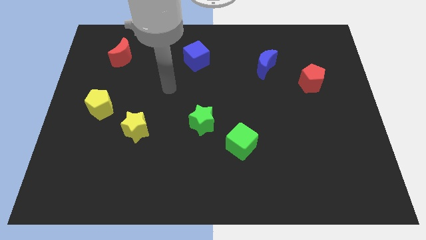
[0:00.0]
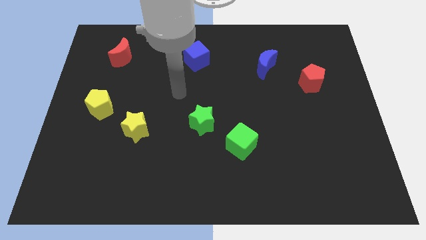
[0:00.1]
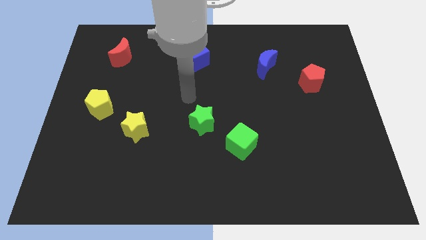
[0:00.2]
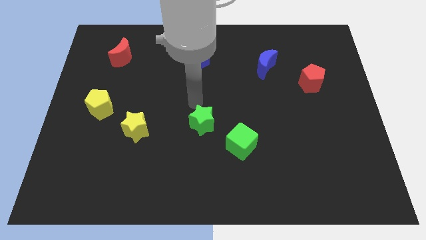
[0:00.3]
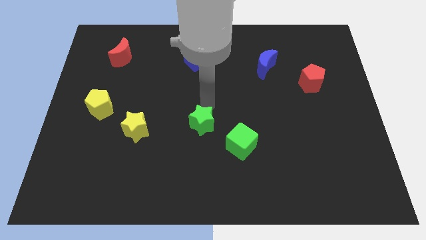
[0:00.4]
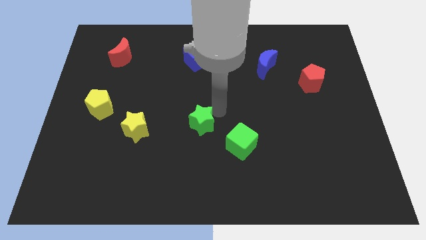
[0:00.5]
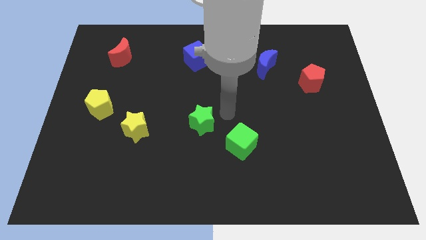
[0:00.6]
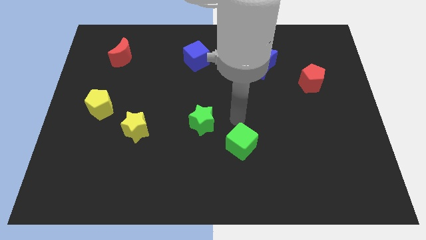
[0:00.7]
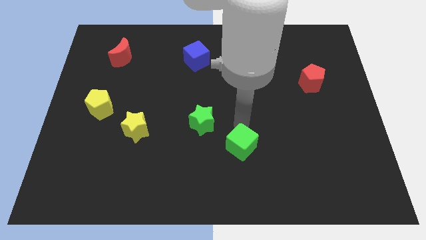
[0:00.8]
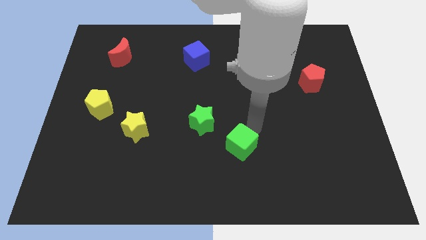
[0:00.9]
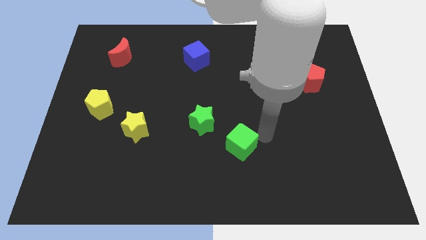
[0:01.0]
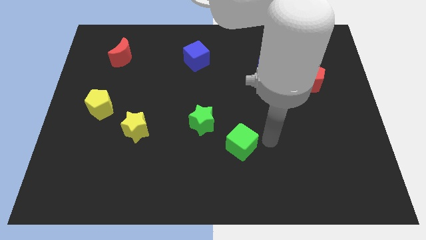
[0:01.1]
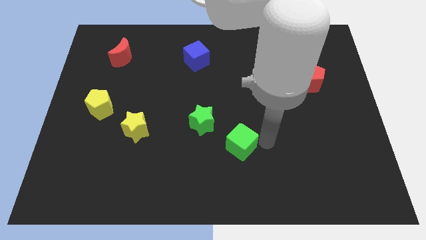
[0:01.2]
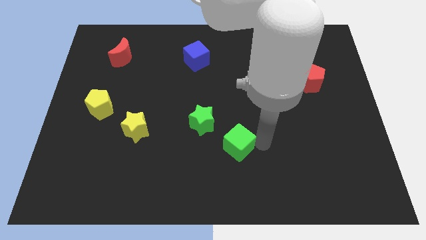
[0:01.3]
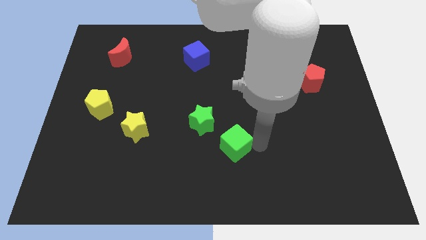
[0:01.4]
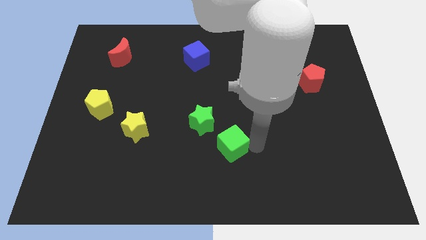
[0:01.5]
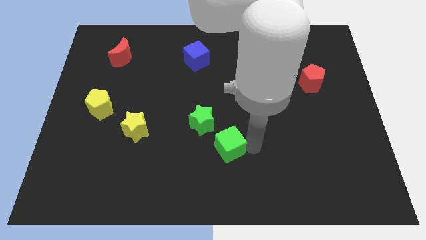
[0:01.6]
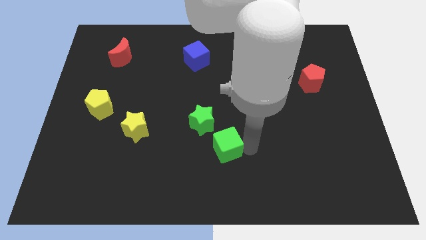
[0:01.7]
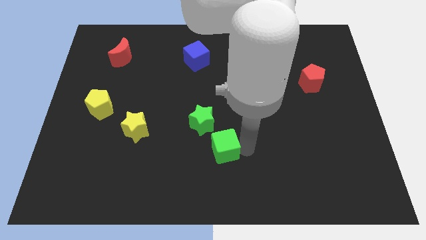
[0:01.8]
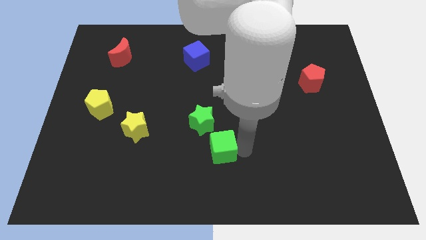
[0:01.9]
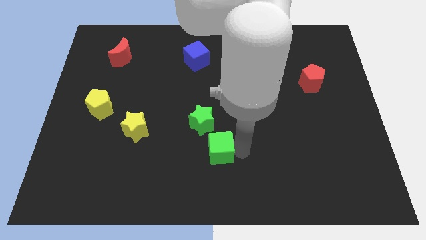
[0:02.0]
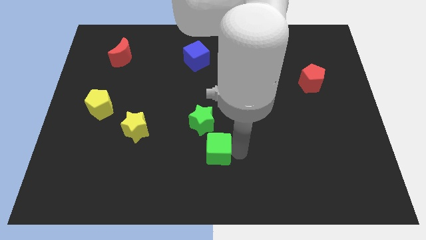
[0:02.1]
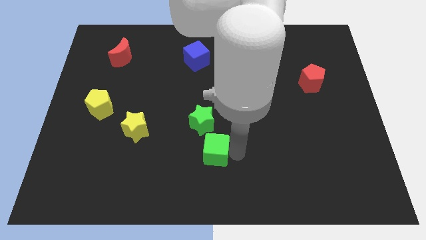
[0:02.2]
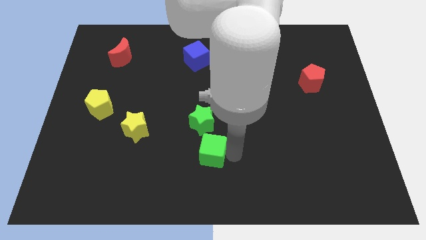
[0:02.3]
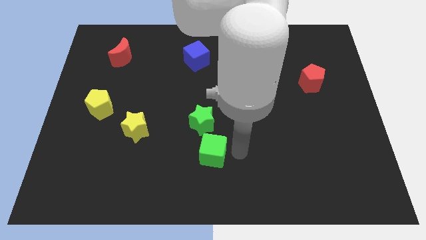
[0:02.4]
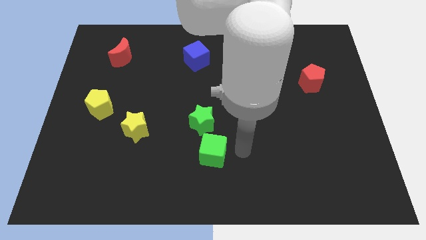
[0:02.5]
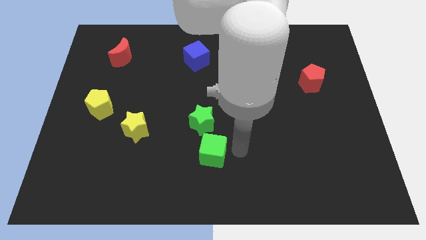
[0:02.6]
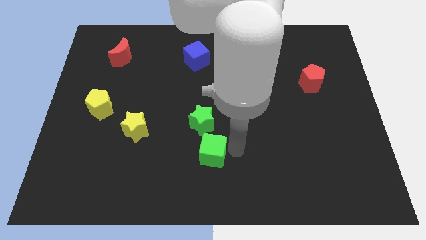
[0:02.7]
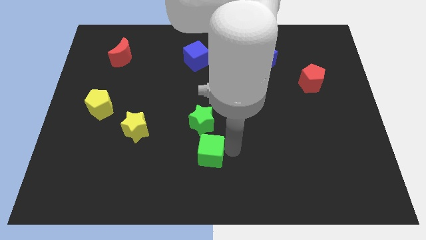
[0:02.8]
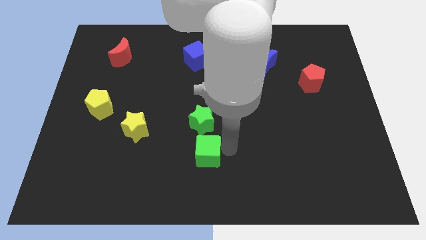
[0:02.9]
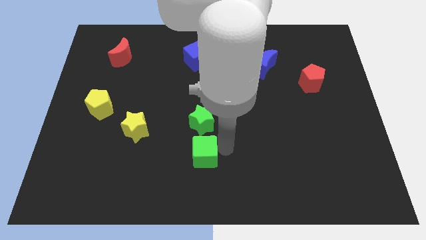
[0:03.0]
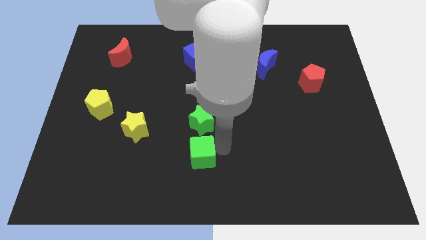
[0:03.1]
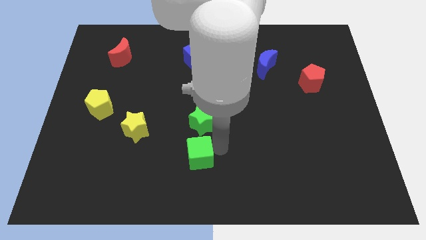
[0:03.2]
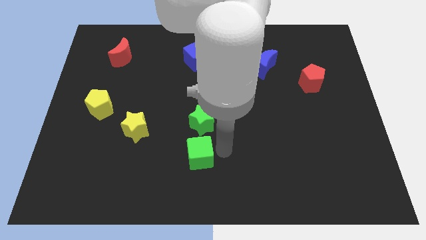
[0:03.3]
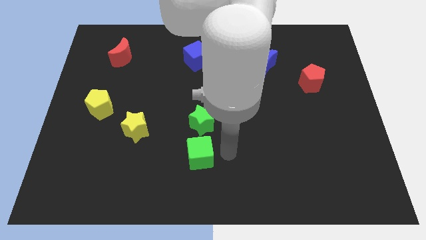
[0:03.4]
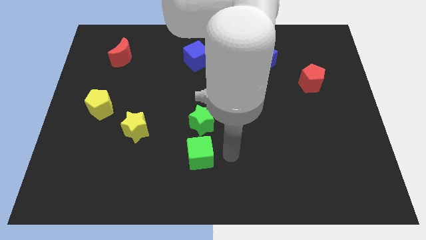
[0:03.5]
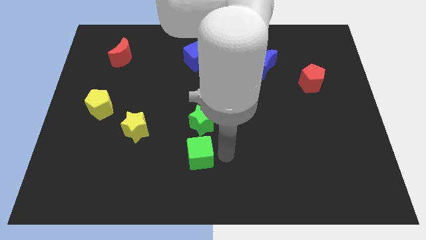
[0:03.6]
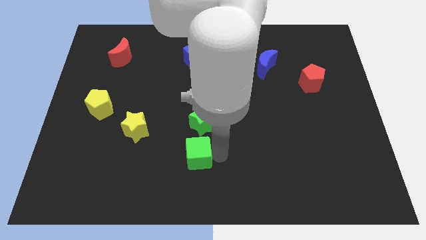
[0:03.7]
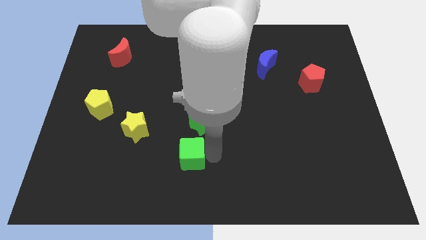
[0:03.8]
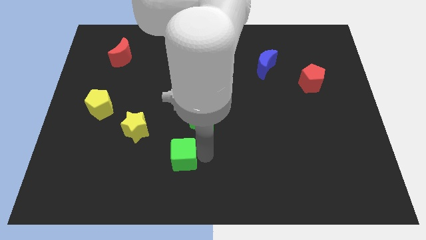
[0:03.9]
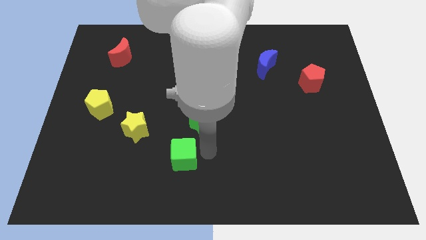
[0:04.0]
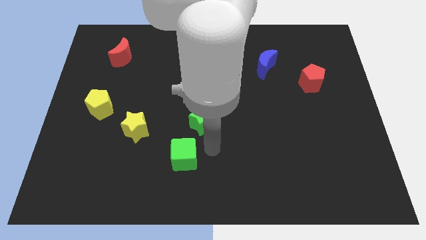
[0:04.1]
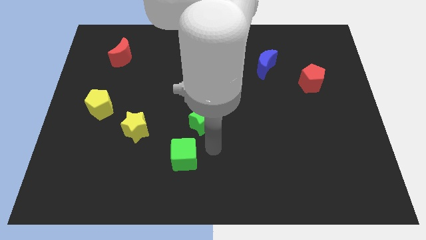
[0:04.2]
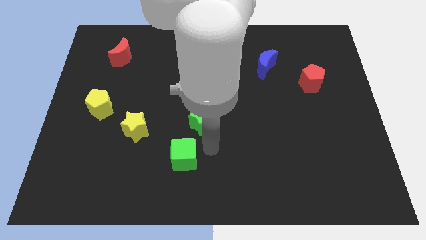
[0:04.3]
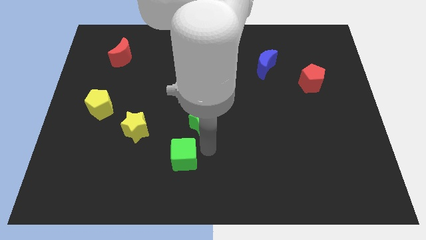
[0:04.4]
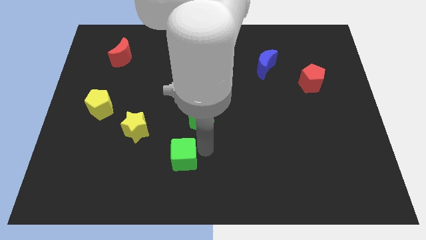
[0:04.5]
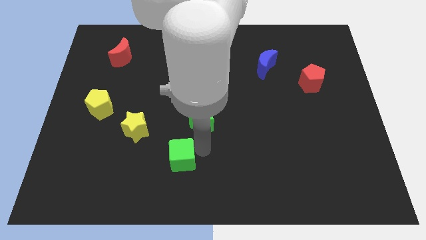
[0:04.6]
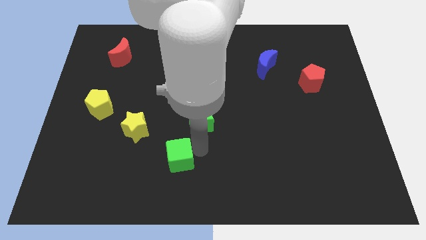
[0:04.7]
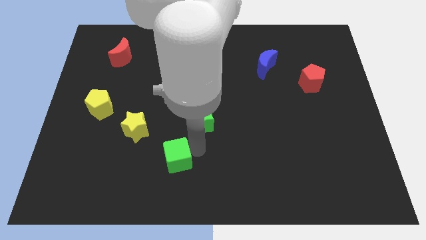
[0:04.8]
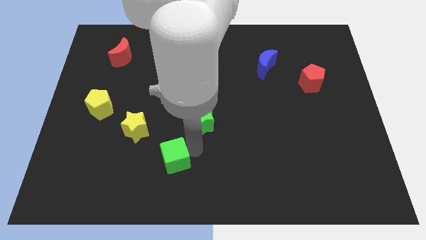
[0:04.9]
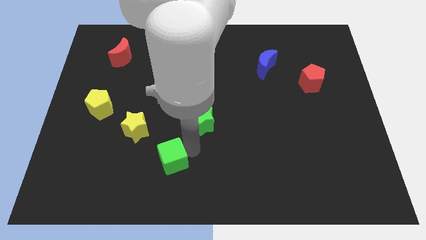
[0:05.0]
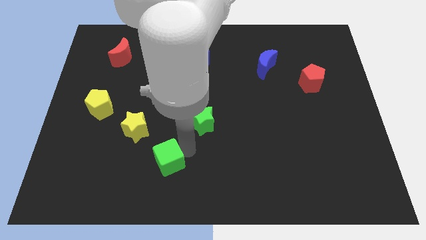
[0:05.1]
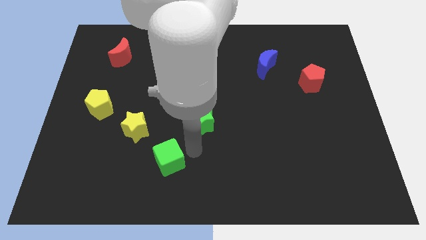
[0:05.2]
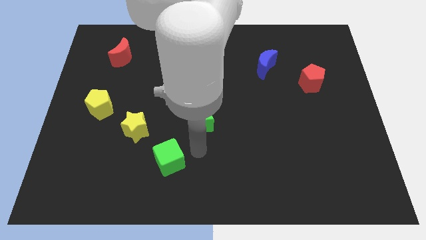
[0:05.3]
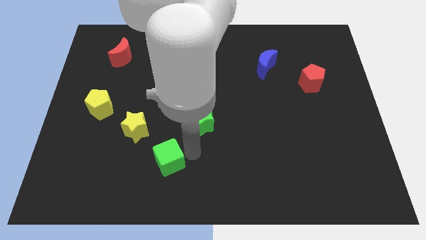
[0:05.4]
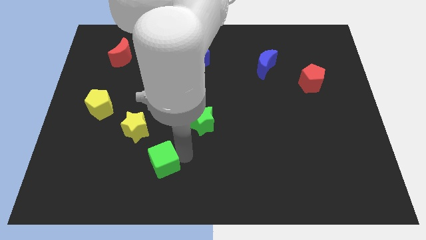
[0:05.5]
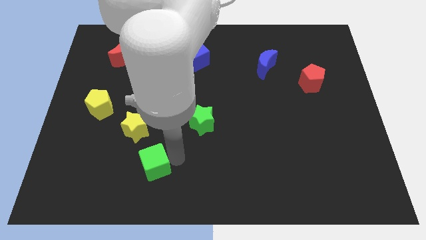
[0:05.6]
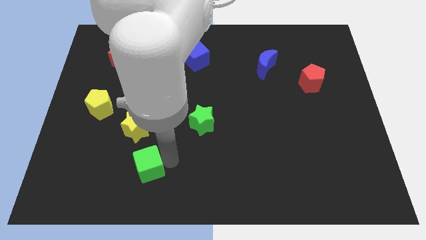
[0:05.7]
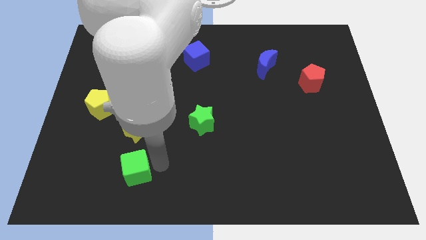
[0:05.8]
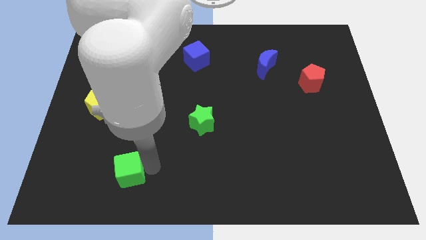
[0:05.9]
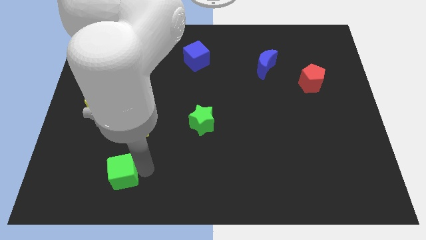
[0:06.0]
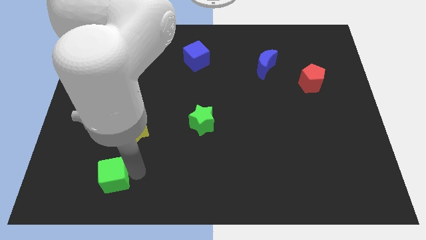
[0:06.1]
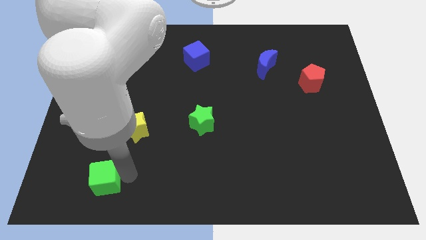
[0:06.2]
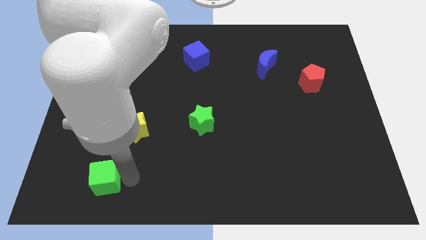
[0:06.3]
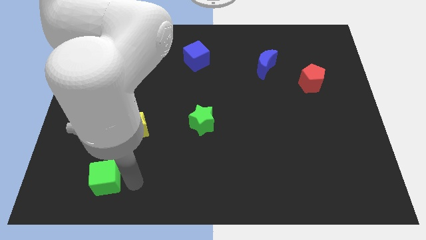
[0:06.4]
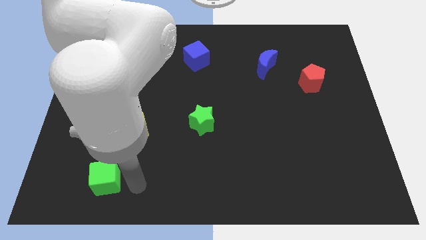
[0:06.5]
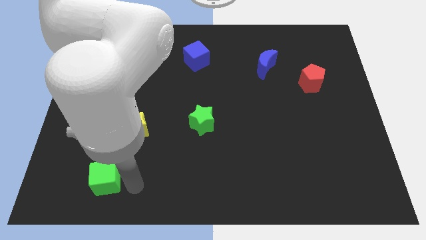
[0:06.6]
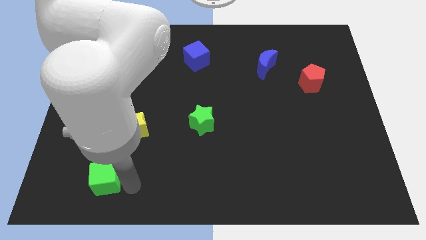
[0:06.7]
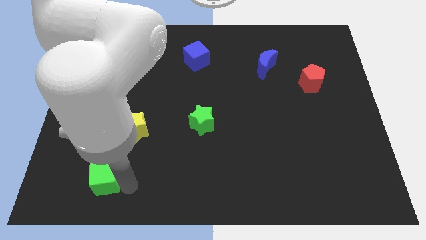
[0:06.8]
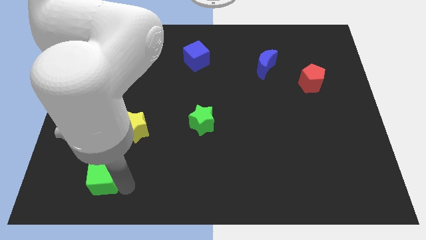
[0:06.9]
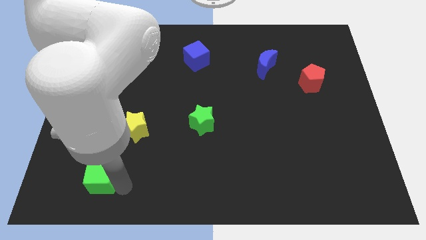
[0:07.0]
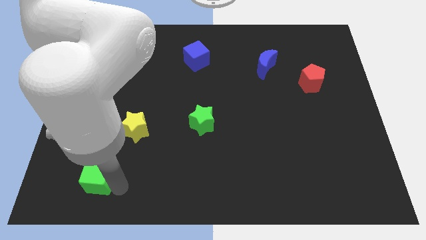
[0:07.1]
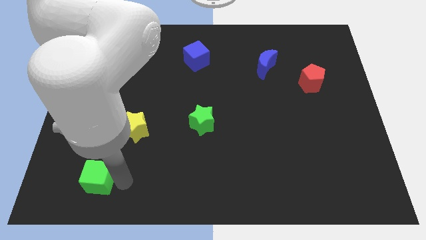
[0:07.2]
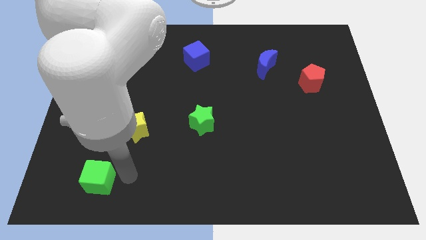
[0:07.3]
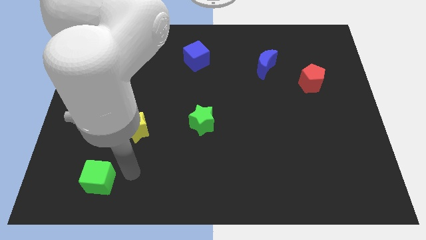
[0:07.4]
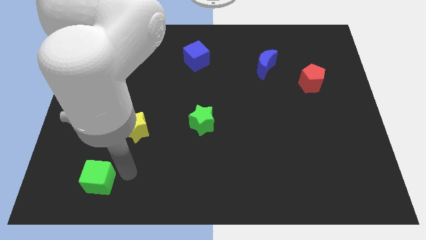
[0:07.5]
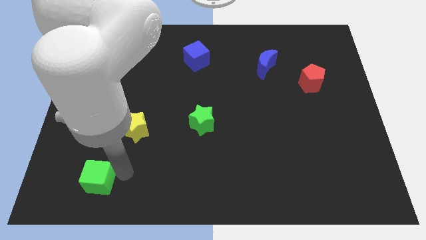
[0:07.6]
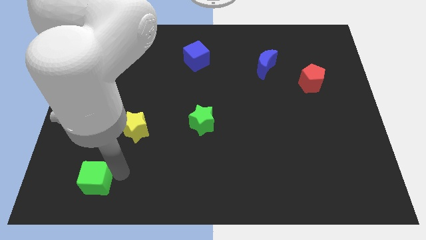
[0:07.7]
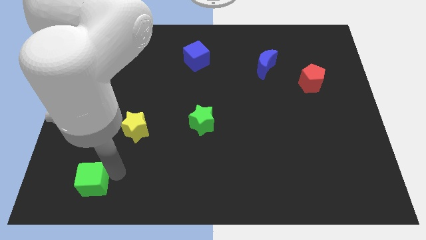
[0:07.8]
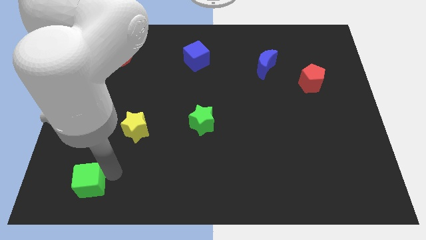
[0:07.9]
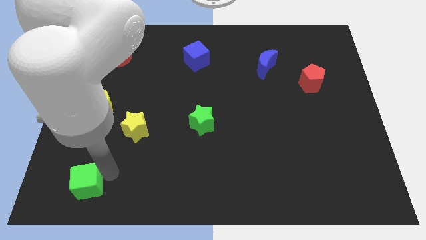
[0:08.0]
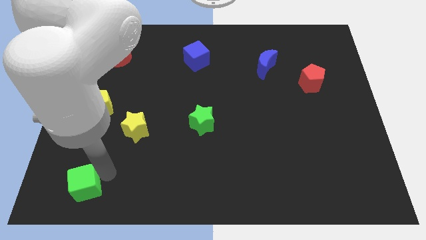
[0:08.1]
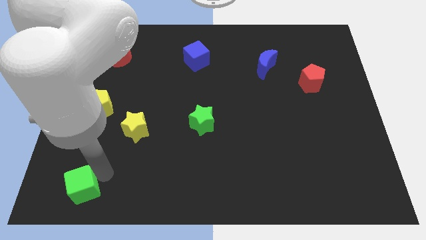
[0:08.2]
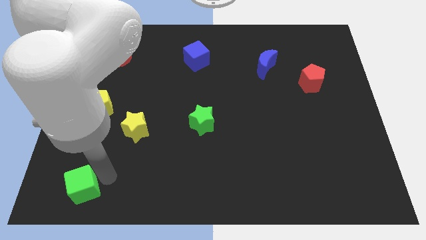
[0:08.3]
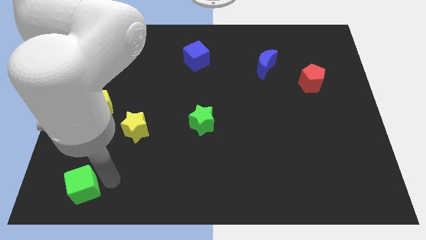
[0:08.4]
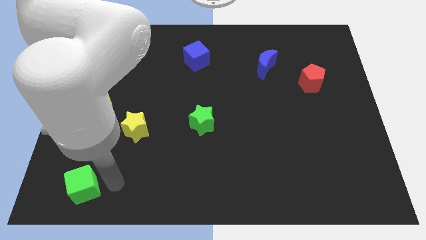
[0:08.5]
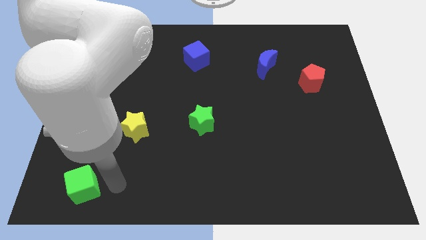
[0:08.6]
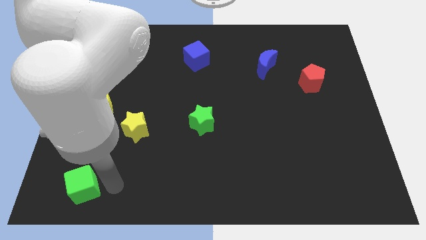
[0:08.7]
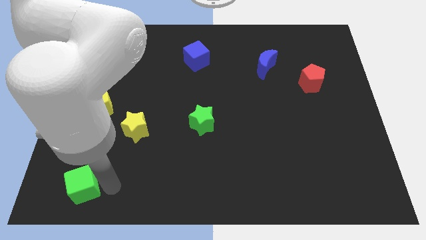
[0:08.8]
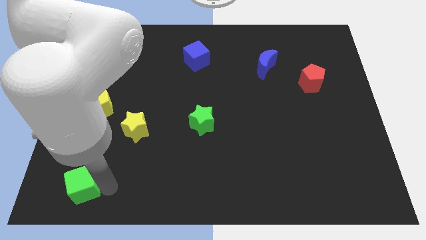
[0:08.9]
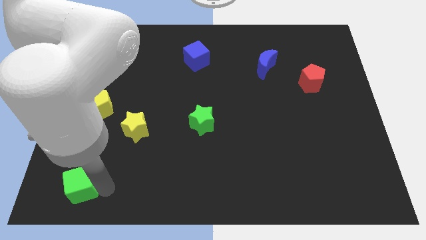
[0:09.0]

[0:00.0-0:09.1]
push the green cube to the lower left corner
